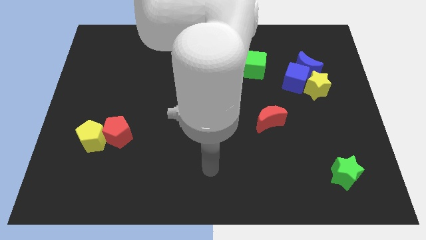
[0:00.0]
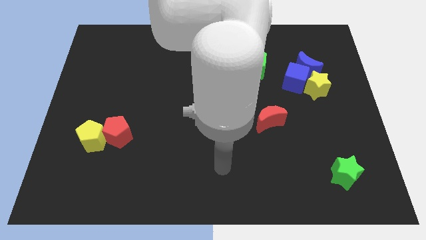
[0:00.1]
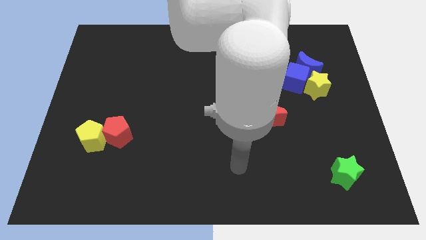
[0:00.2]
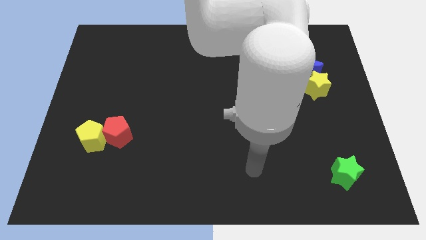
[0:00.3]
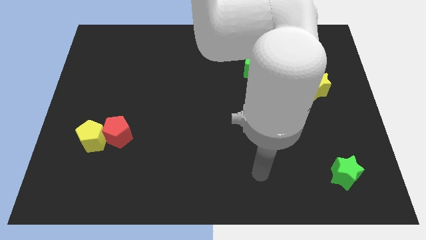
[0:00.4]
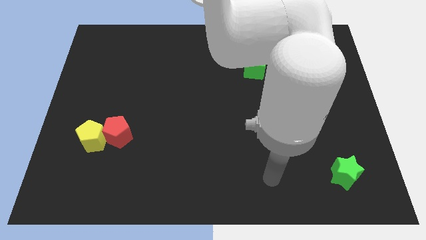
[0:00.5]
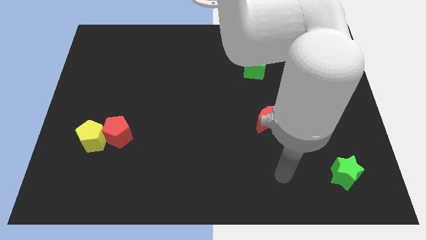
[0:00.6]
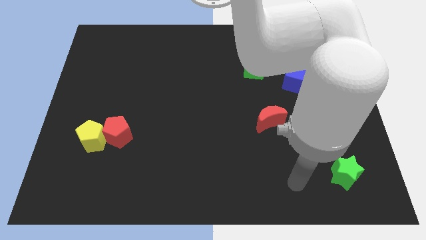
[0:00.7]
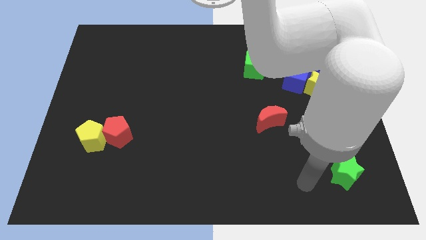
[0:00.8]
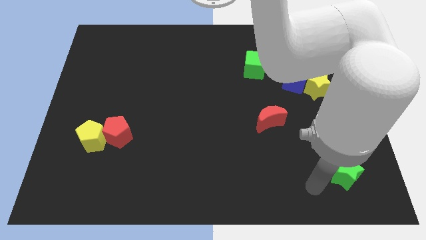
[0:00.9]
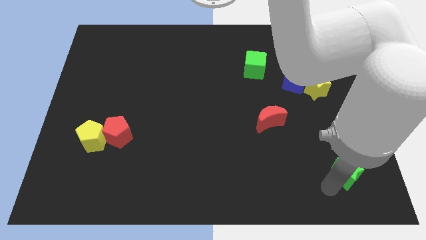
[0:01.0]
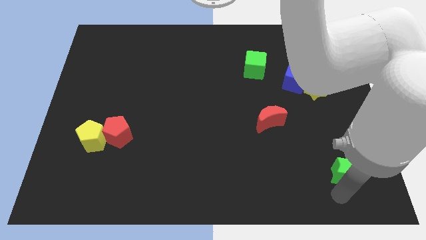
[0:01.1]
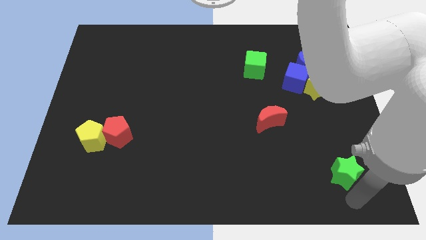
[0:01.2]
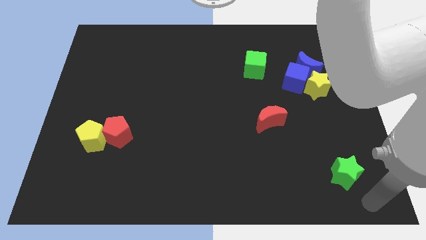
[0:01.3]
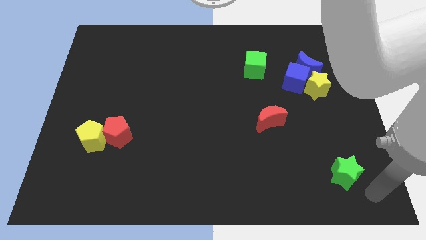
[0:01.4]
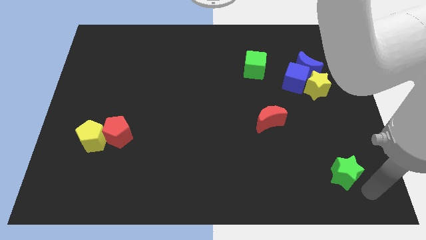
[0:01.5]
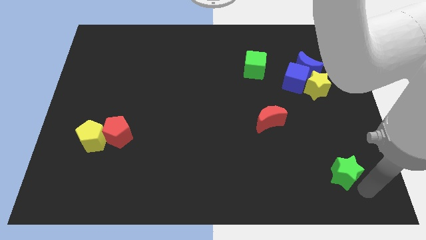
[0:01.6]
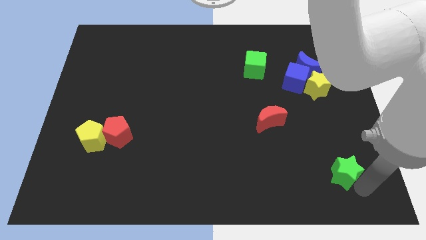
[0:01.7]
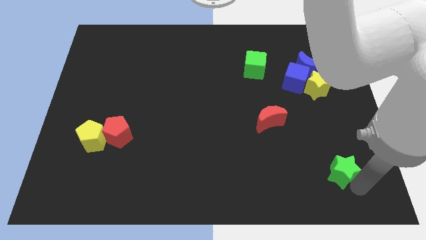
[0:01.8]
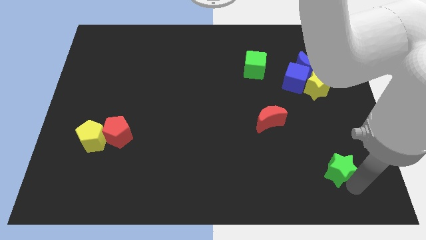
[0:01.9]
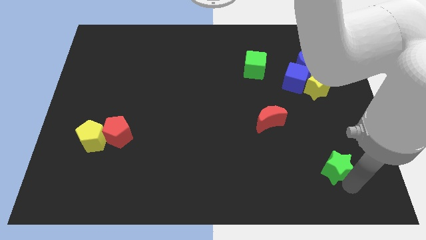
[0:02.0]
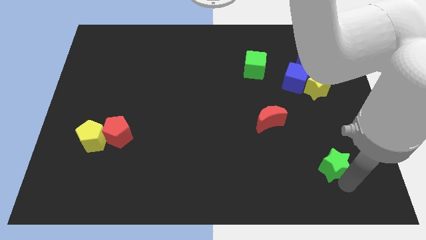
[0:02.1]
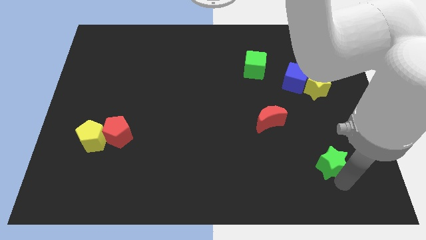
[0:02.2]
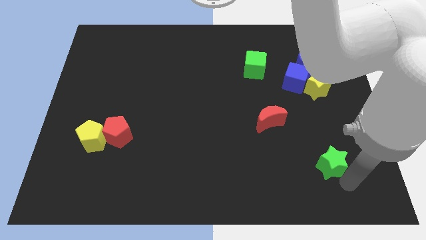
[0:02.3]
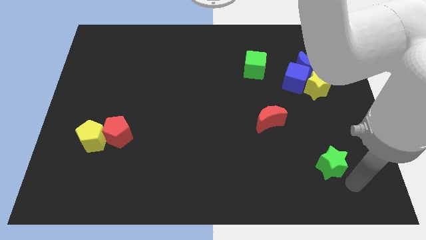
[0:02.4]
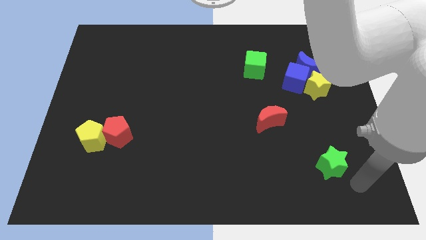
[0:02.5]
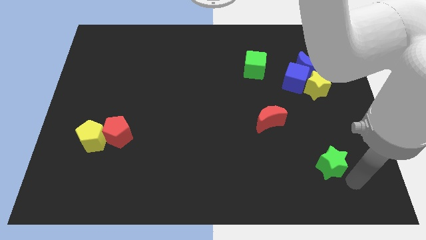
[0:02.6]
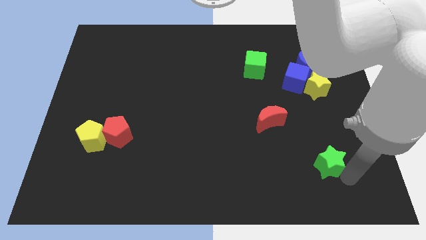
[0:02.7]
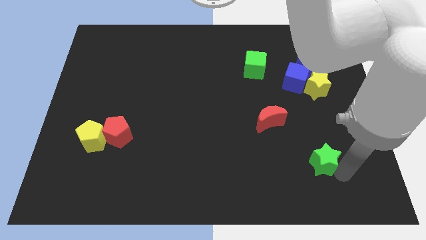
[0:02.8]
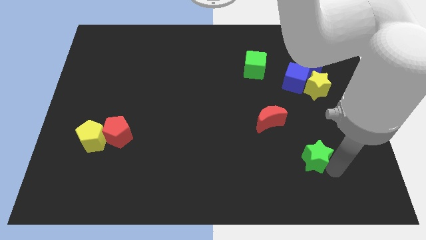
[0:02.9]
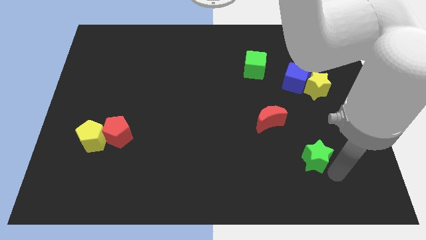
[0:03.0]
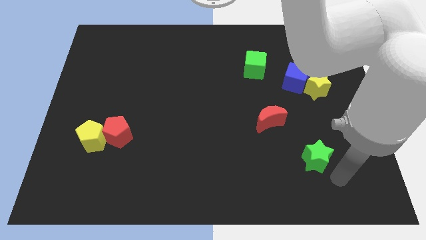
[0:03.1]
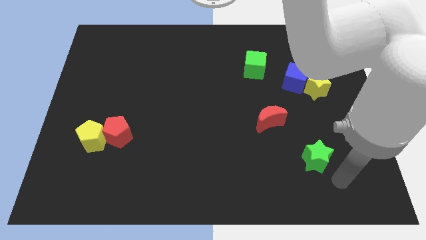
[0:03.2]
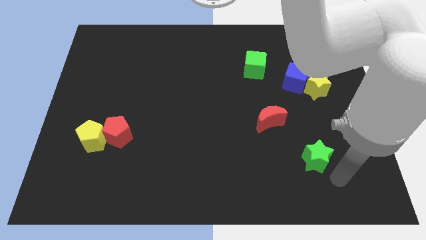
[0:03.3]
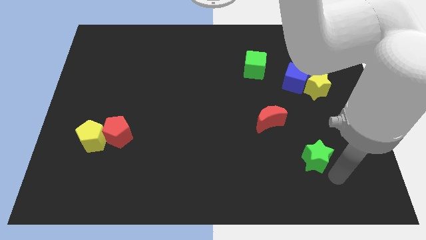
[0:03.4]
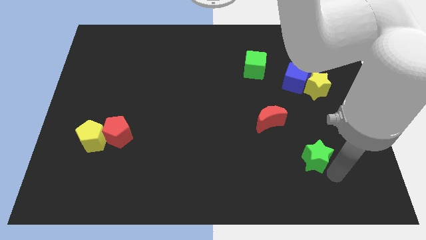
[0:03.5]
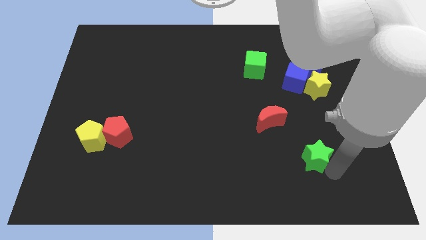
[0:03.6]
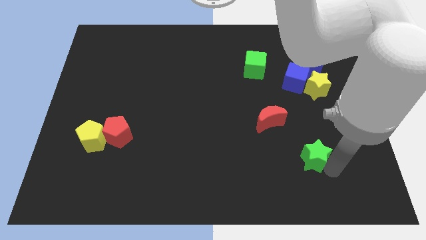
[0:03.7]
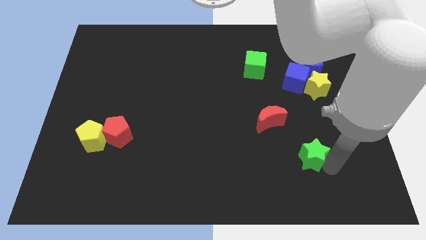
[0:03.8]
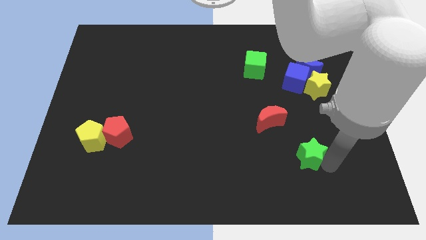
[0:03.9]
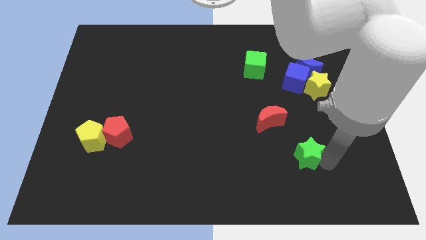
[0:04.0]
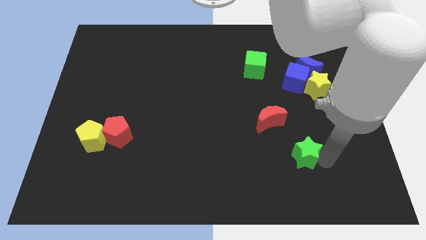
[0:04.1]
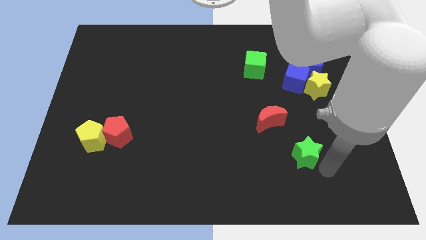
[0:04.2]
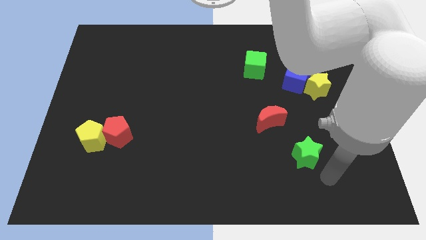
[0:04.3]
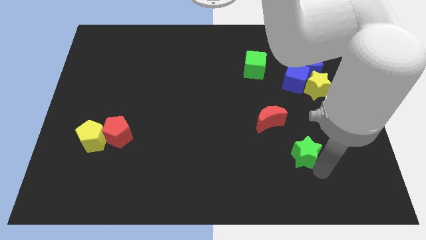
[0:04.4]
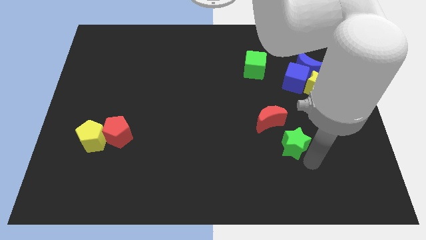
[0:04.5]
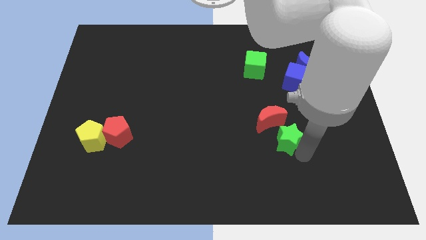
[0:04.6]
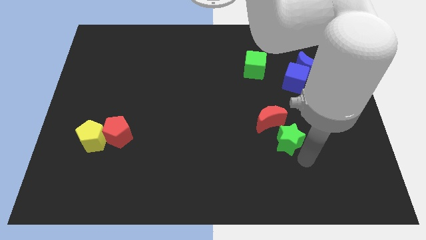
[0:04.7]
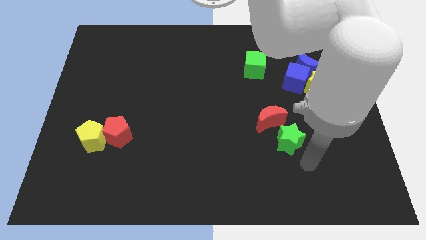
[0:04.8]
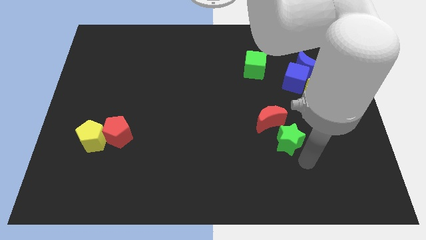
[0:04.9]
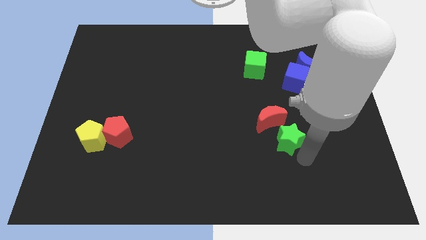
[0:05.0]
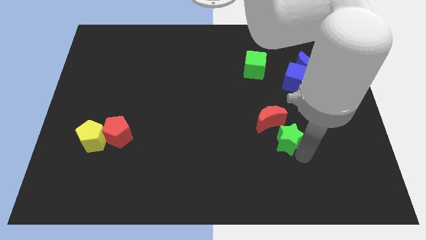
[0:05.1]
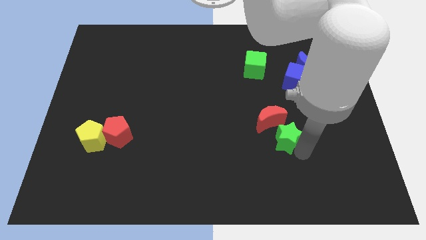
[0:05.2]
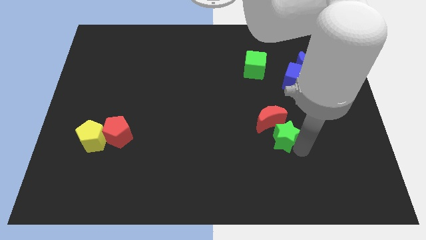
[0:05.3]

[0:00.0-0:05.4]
put the green star close to the red moon
